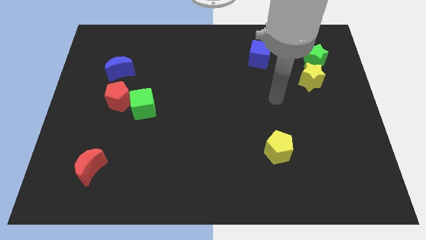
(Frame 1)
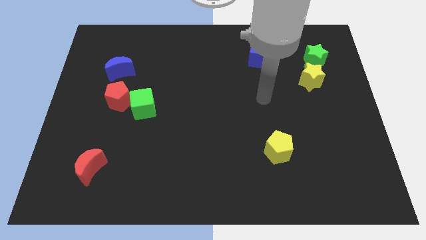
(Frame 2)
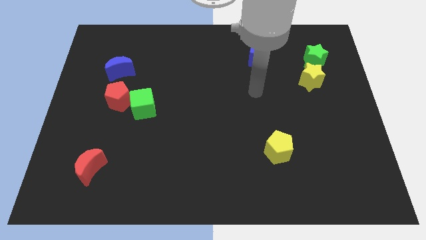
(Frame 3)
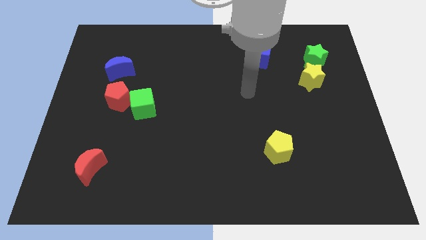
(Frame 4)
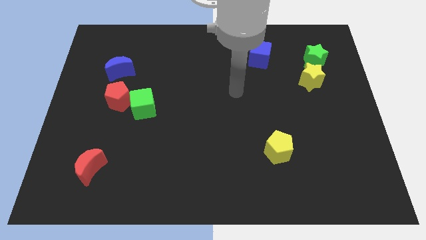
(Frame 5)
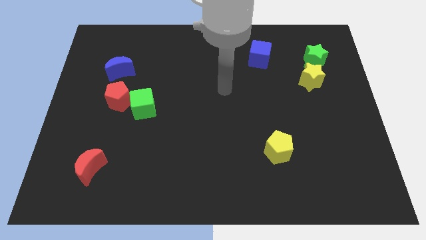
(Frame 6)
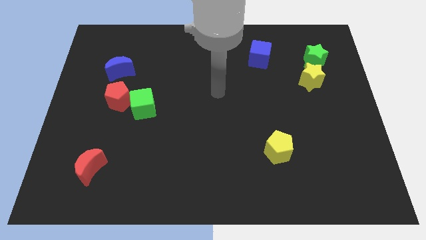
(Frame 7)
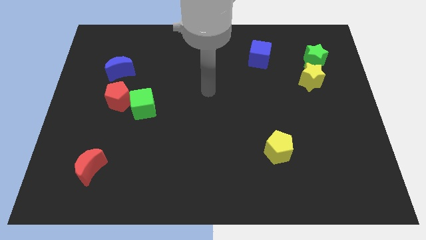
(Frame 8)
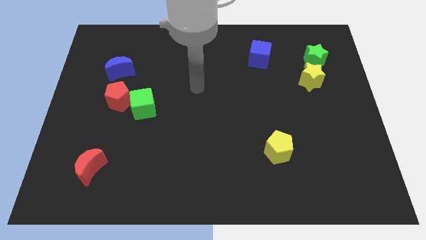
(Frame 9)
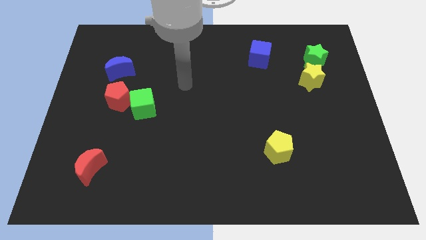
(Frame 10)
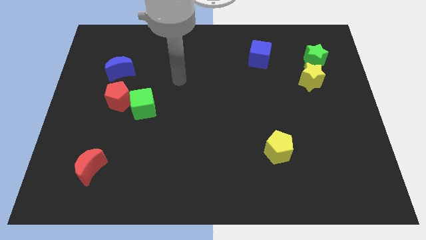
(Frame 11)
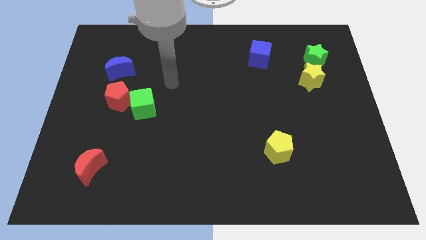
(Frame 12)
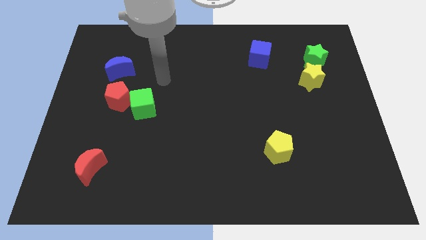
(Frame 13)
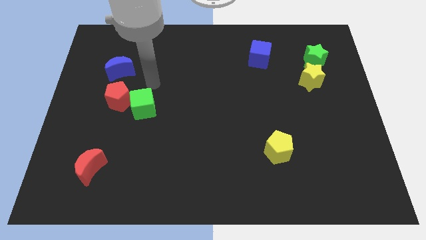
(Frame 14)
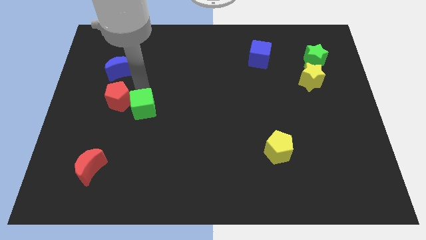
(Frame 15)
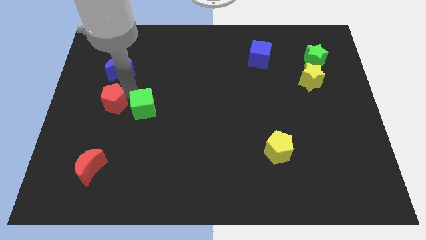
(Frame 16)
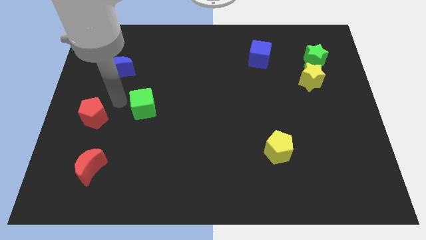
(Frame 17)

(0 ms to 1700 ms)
move the green cube away from the red pentagon

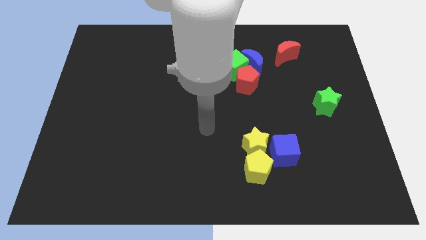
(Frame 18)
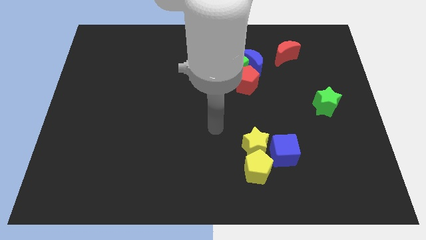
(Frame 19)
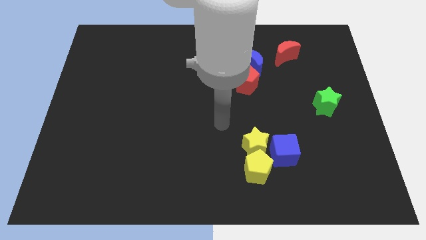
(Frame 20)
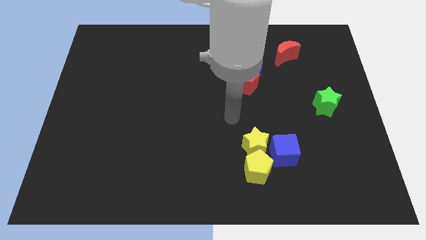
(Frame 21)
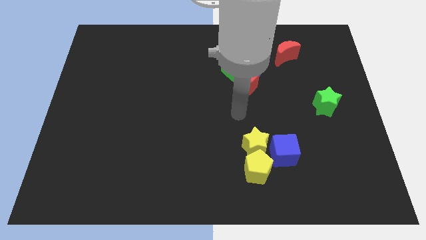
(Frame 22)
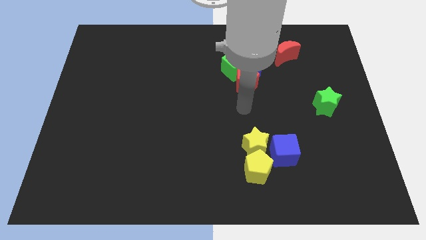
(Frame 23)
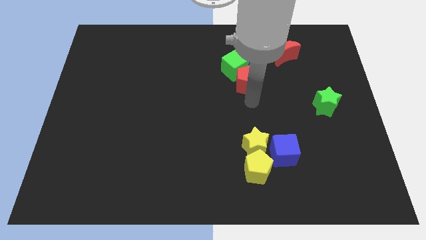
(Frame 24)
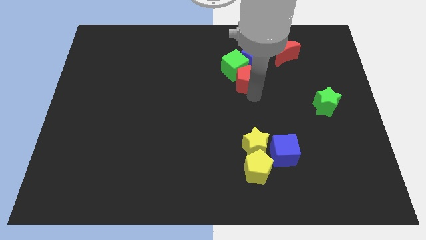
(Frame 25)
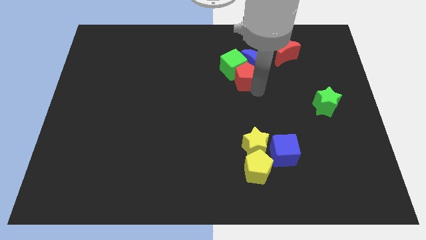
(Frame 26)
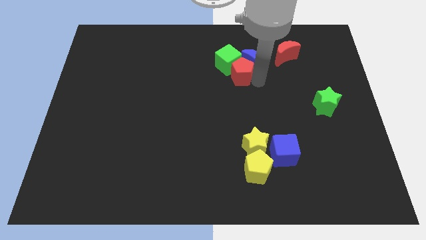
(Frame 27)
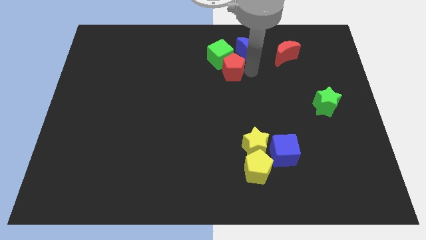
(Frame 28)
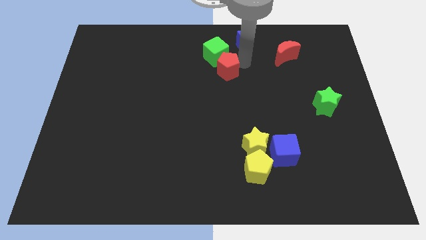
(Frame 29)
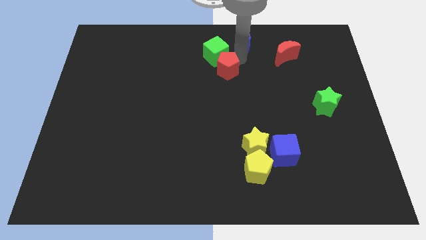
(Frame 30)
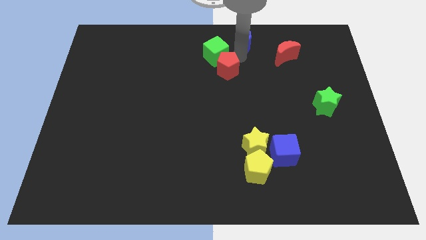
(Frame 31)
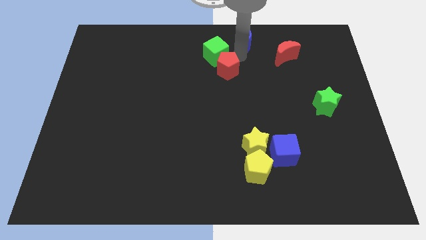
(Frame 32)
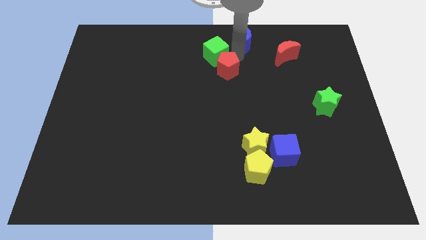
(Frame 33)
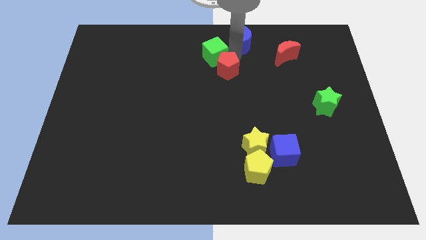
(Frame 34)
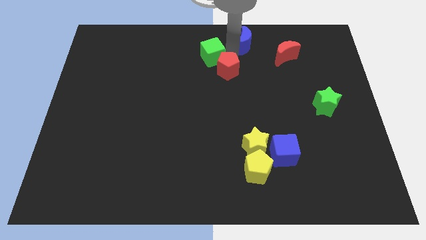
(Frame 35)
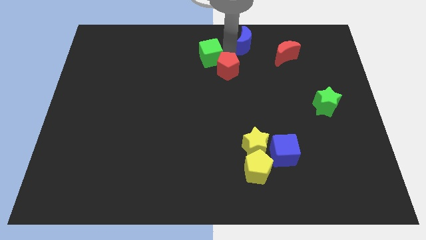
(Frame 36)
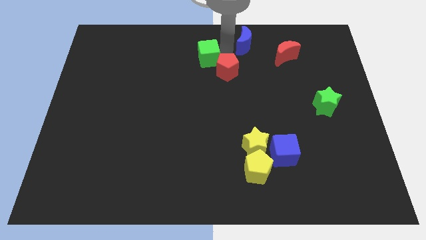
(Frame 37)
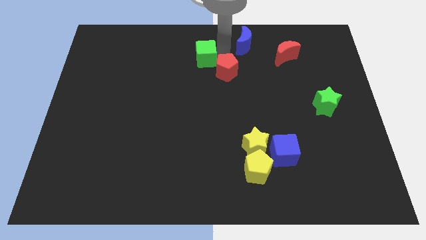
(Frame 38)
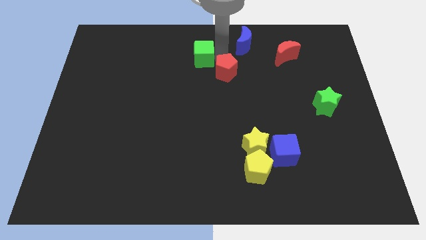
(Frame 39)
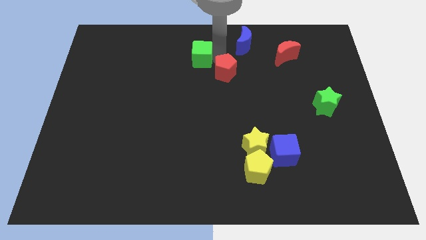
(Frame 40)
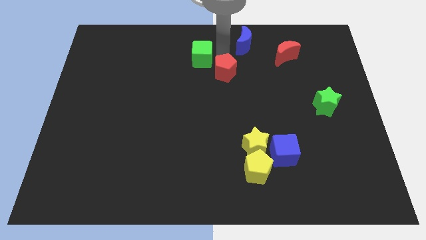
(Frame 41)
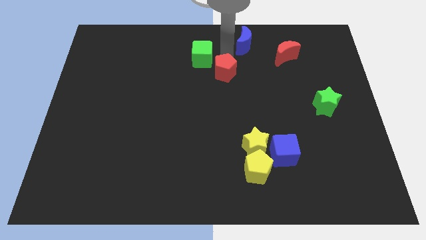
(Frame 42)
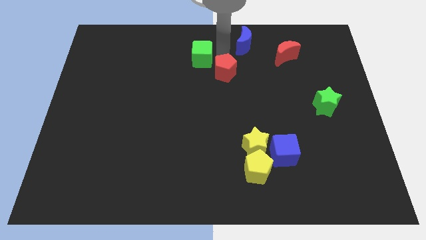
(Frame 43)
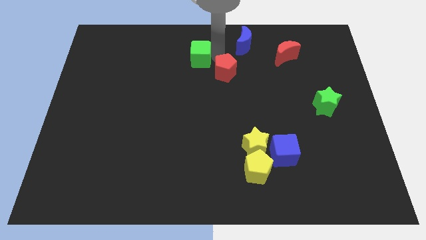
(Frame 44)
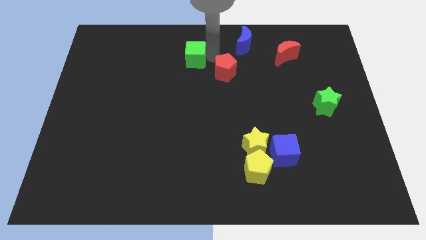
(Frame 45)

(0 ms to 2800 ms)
separate the green cube from the blue moon and red pentagon

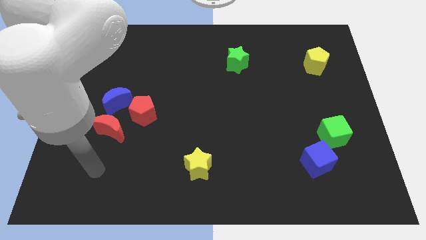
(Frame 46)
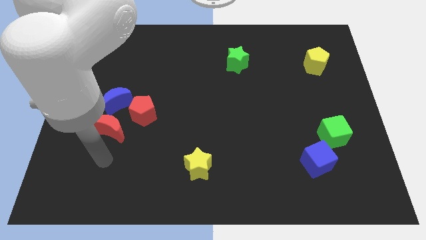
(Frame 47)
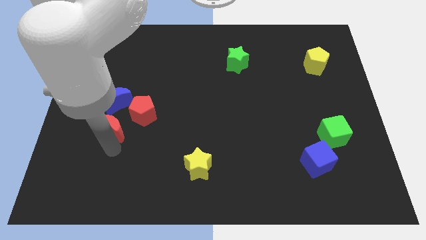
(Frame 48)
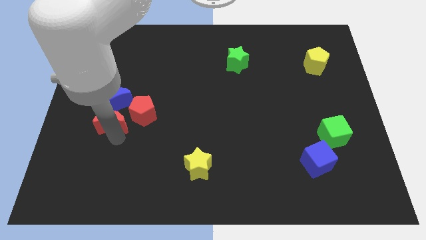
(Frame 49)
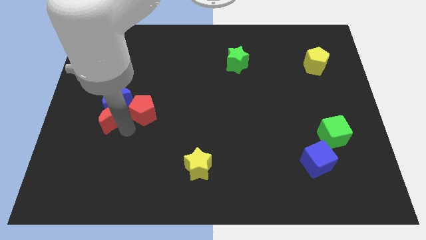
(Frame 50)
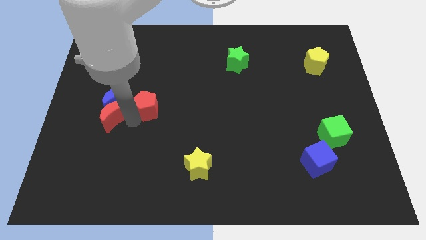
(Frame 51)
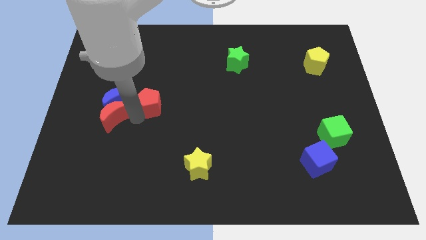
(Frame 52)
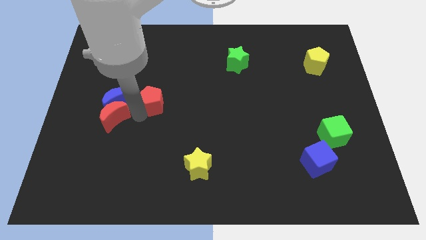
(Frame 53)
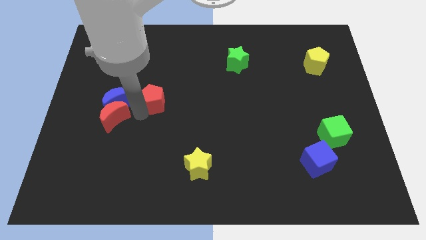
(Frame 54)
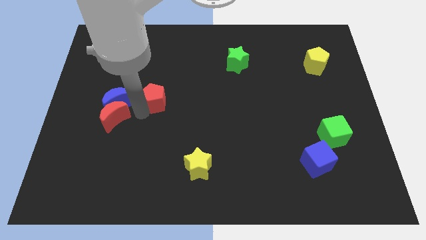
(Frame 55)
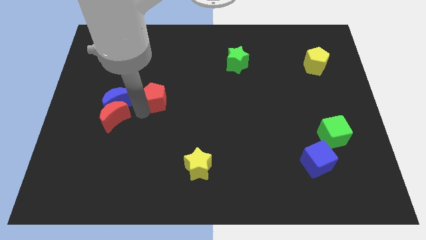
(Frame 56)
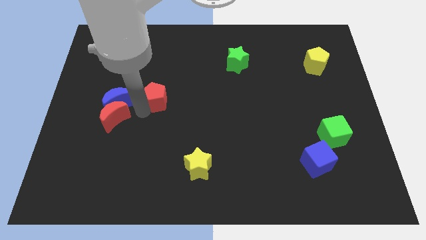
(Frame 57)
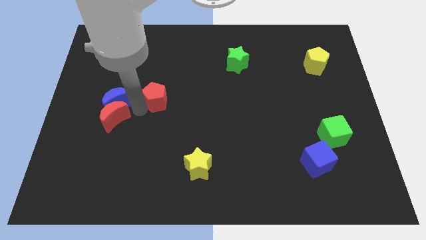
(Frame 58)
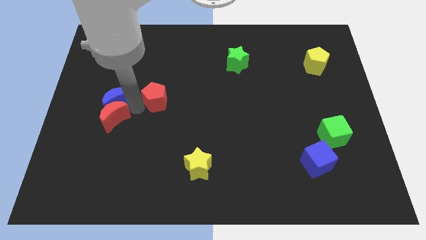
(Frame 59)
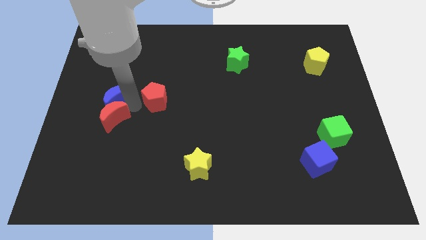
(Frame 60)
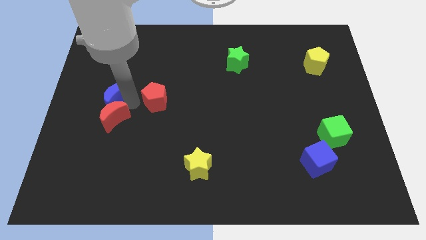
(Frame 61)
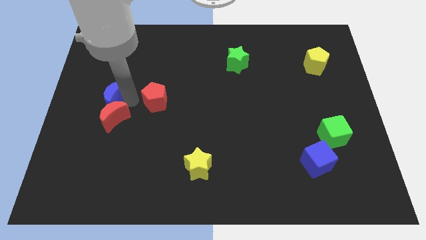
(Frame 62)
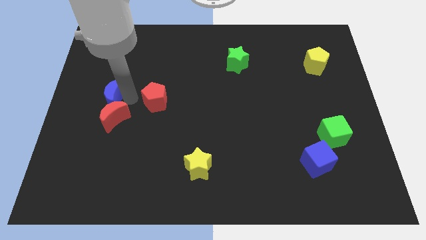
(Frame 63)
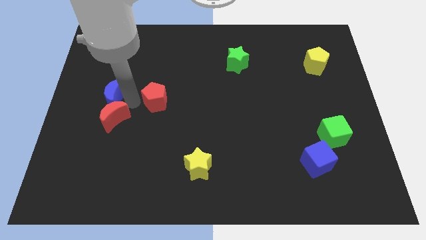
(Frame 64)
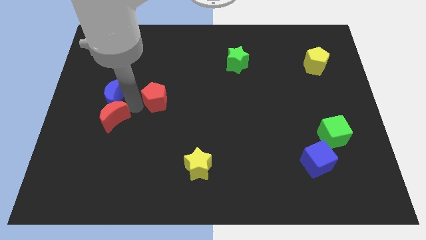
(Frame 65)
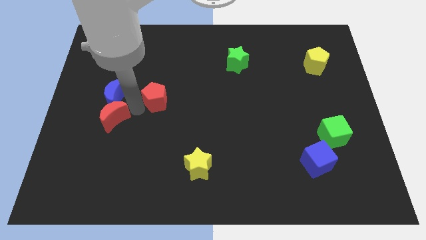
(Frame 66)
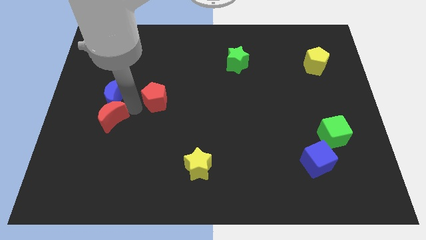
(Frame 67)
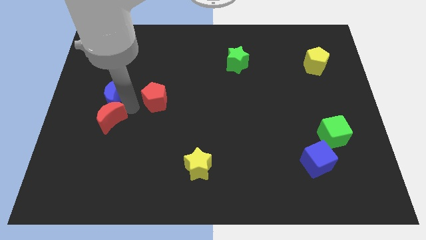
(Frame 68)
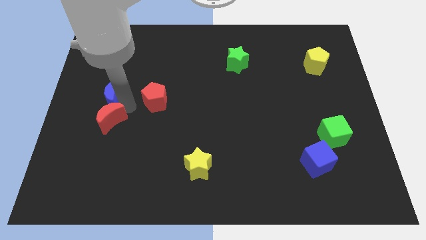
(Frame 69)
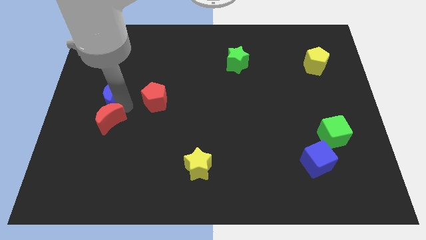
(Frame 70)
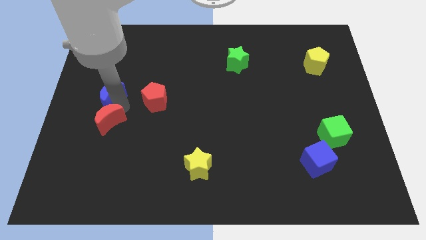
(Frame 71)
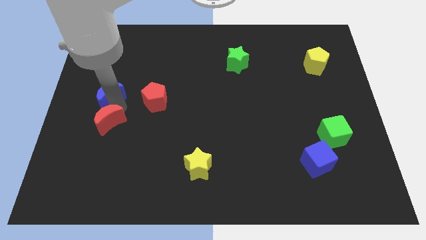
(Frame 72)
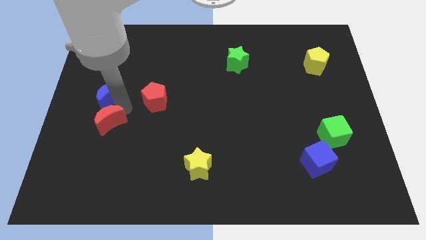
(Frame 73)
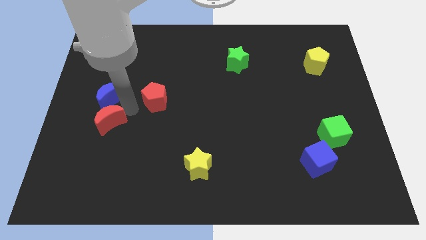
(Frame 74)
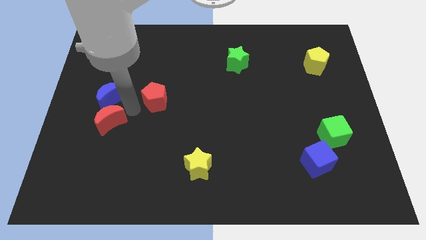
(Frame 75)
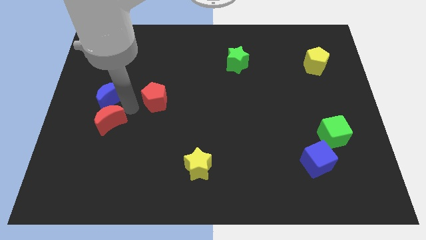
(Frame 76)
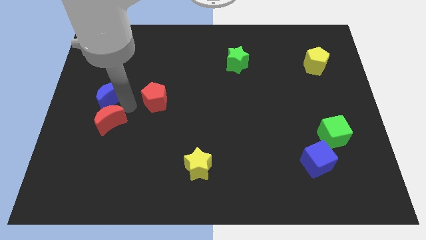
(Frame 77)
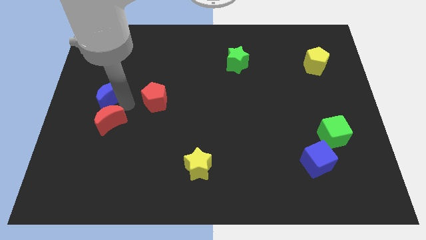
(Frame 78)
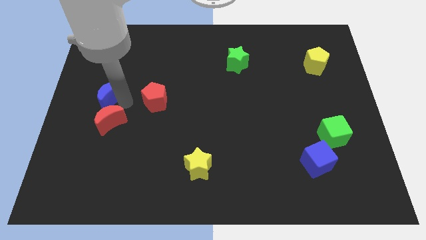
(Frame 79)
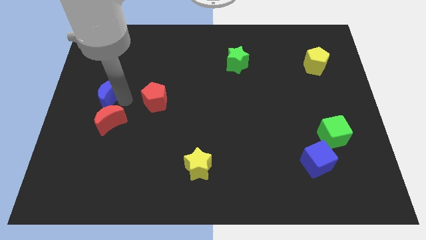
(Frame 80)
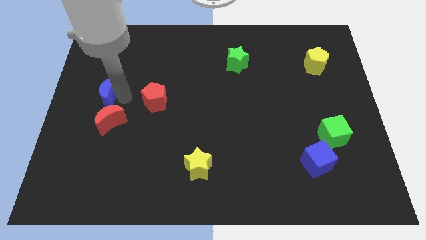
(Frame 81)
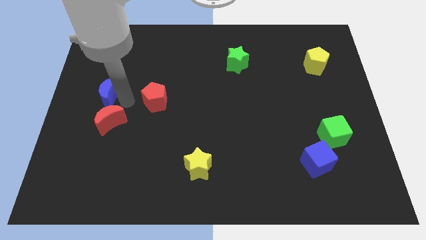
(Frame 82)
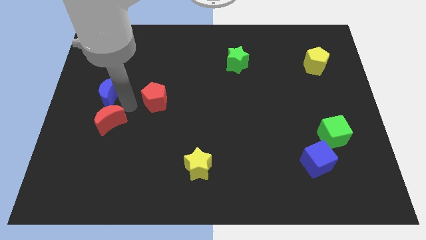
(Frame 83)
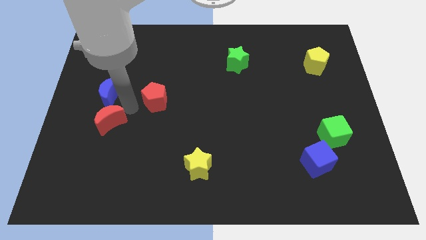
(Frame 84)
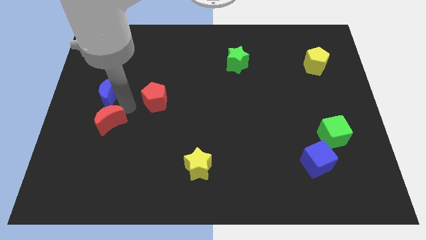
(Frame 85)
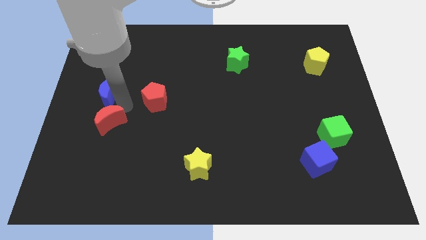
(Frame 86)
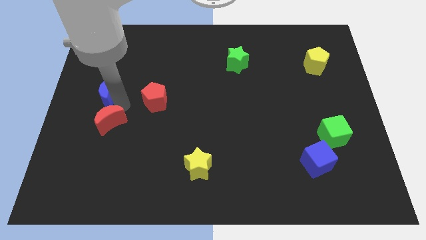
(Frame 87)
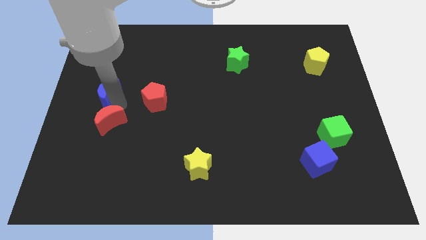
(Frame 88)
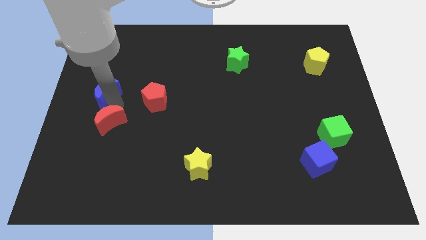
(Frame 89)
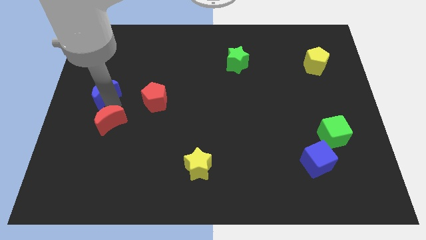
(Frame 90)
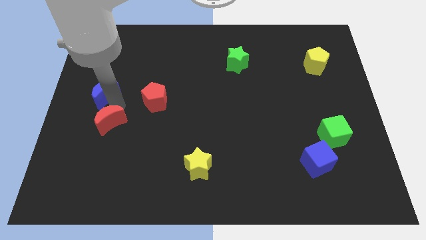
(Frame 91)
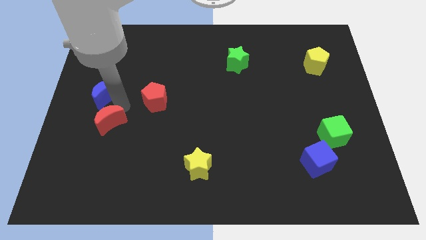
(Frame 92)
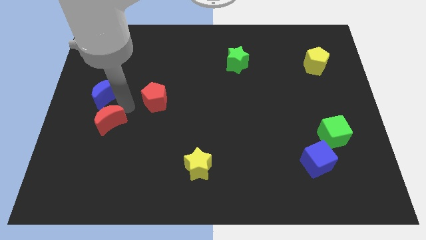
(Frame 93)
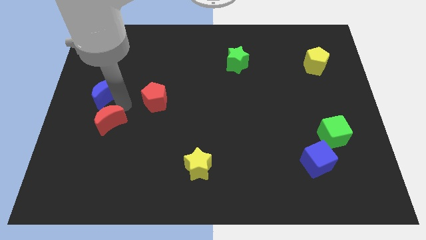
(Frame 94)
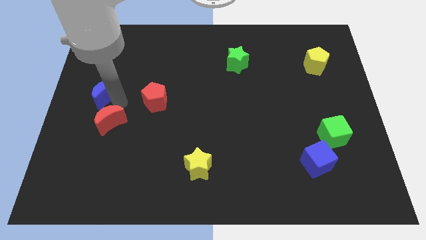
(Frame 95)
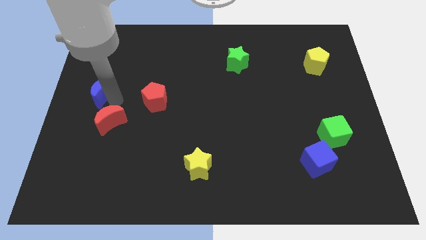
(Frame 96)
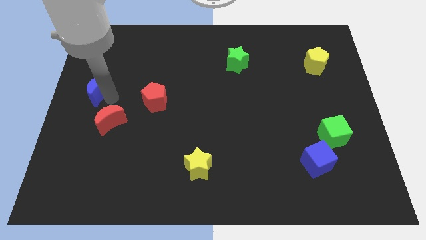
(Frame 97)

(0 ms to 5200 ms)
move the blue moon away from the red pentagon and red moon
